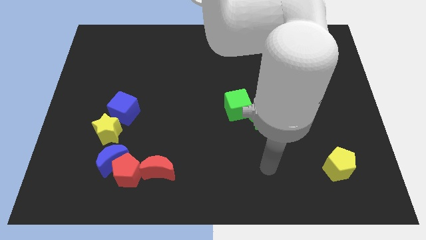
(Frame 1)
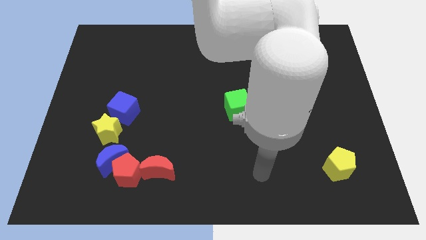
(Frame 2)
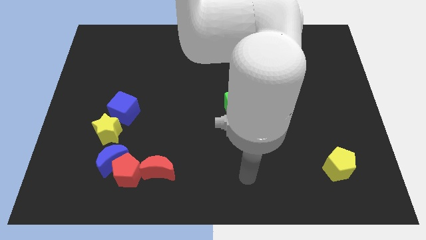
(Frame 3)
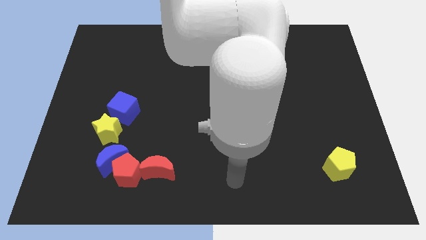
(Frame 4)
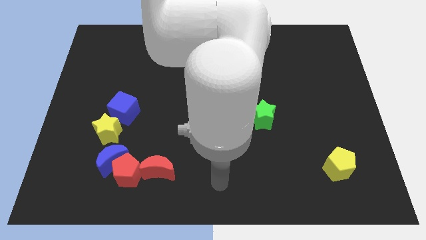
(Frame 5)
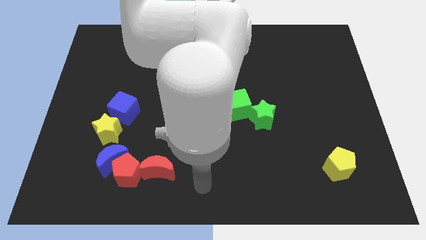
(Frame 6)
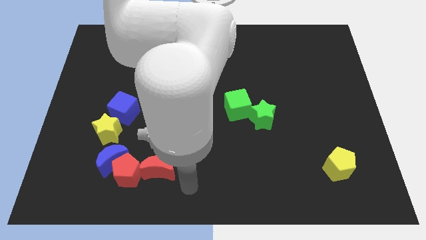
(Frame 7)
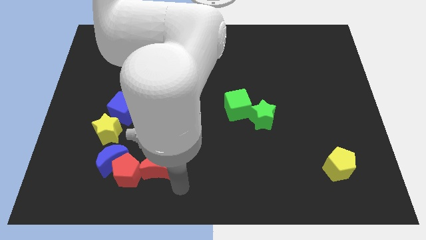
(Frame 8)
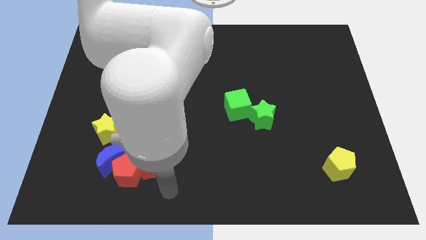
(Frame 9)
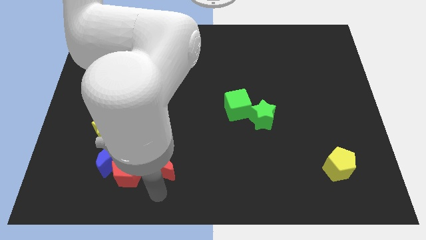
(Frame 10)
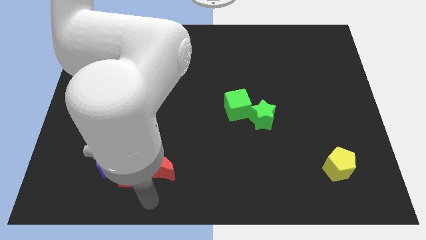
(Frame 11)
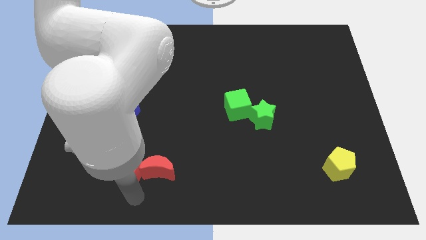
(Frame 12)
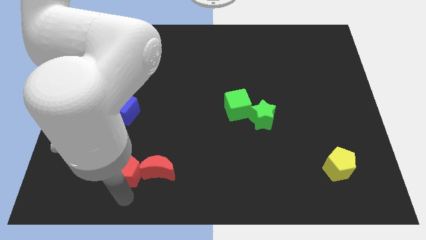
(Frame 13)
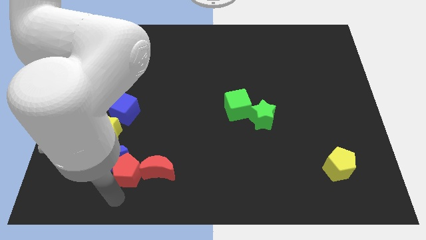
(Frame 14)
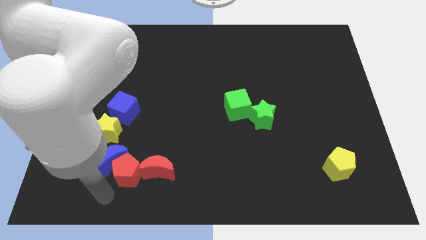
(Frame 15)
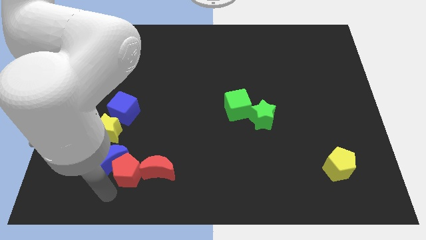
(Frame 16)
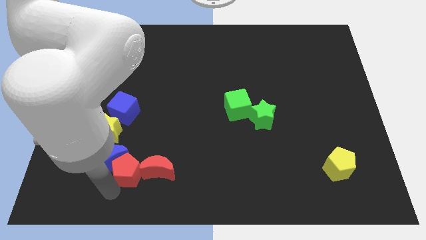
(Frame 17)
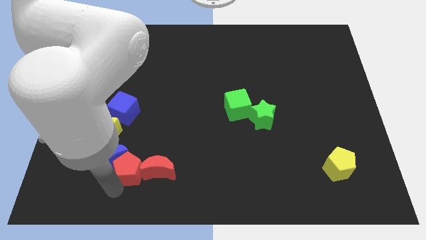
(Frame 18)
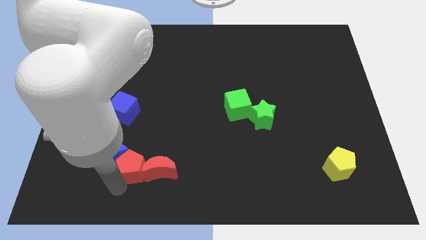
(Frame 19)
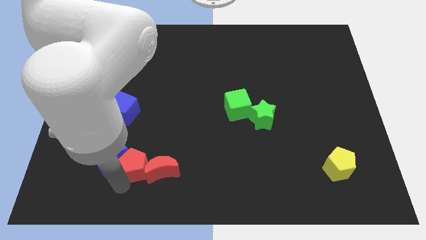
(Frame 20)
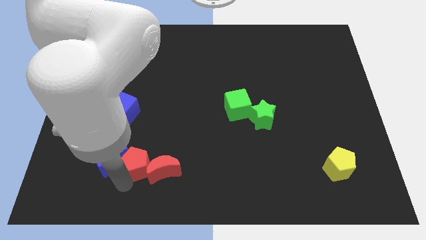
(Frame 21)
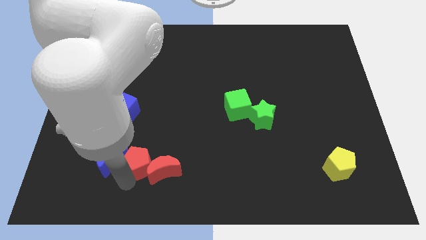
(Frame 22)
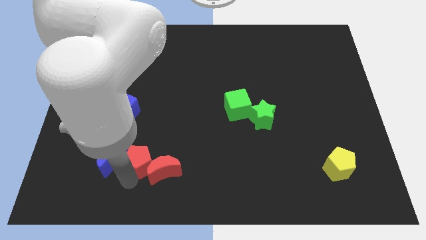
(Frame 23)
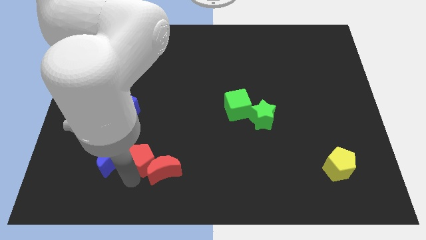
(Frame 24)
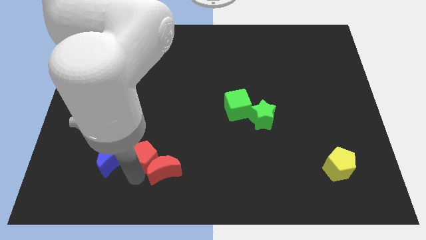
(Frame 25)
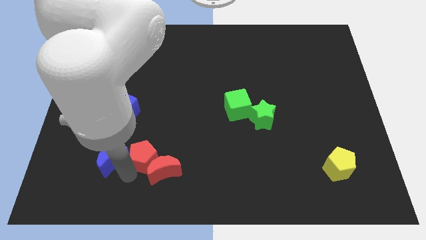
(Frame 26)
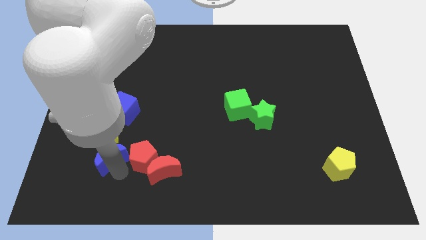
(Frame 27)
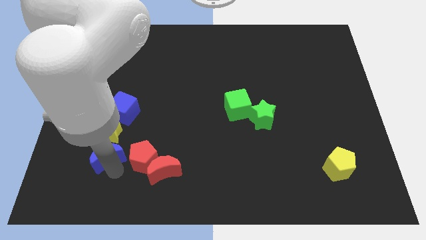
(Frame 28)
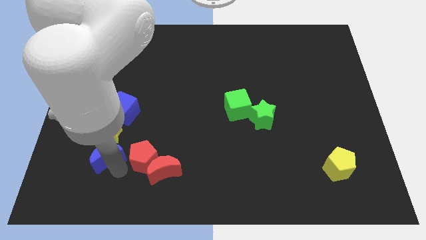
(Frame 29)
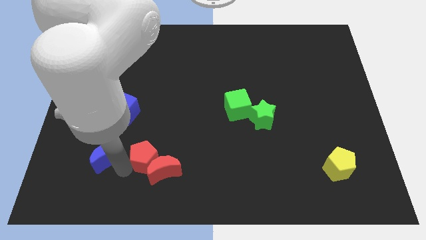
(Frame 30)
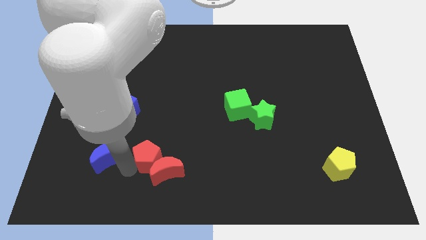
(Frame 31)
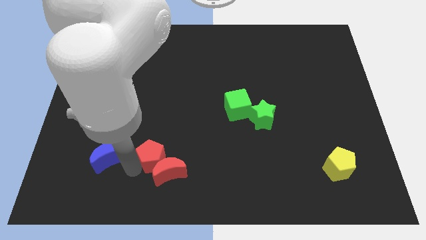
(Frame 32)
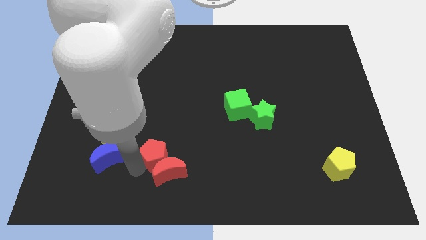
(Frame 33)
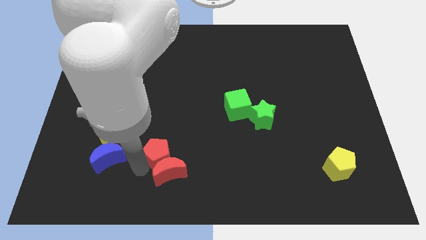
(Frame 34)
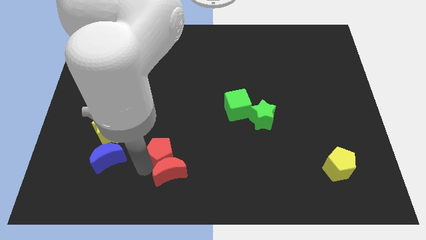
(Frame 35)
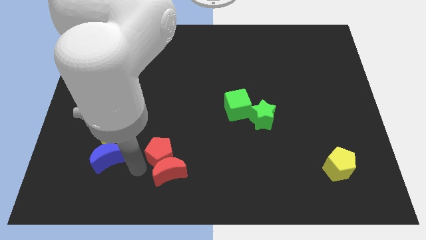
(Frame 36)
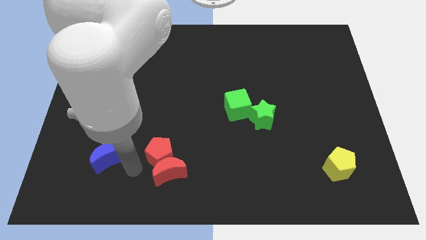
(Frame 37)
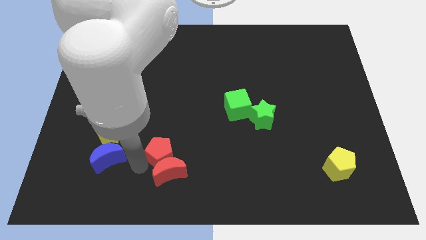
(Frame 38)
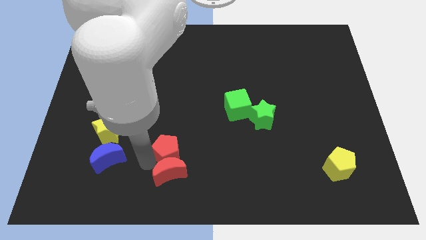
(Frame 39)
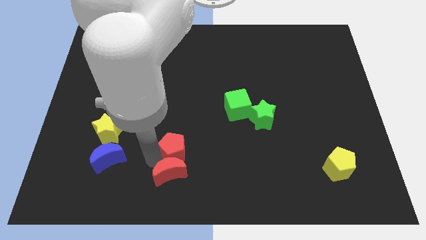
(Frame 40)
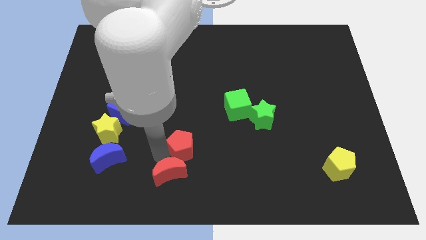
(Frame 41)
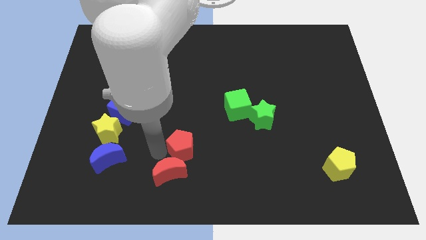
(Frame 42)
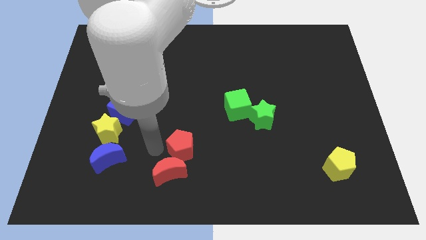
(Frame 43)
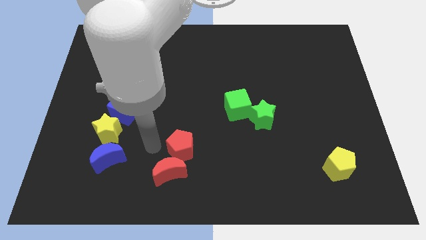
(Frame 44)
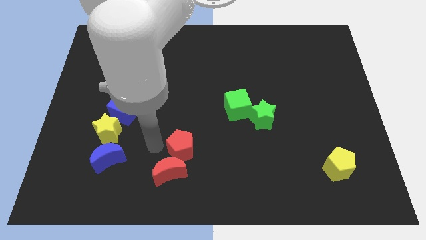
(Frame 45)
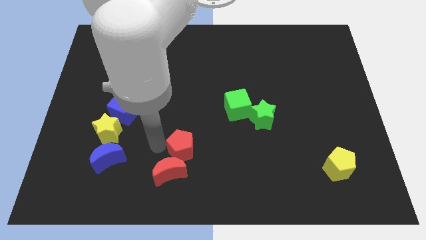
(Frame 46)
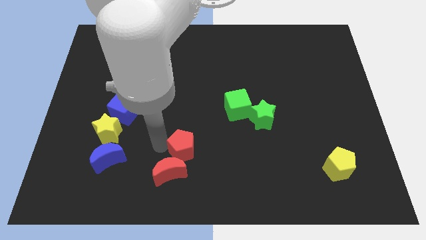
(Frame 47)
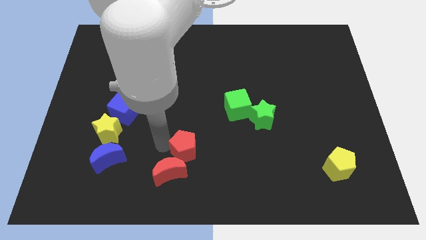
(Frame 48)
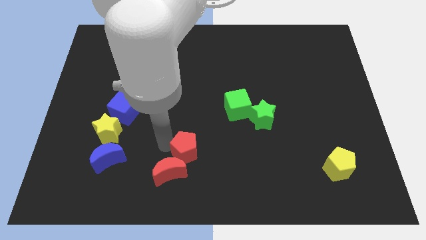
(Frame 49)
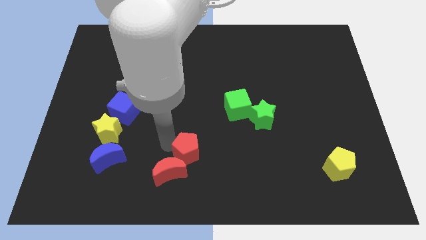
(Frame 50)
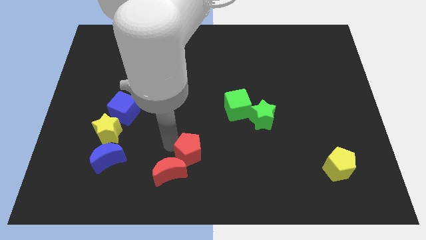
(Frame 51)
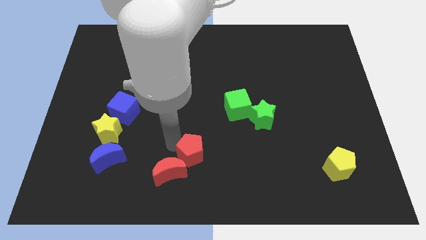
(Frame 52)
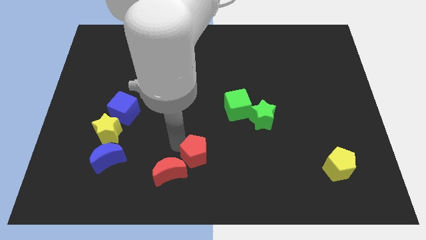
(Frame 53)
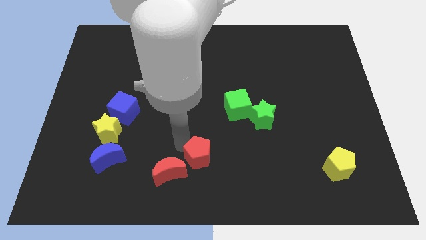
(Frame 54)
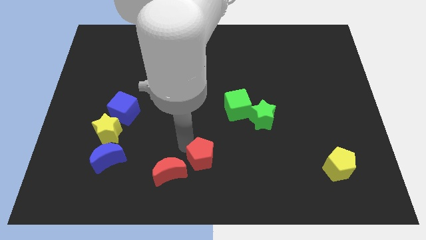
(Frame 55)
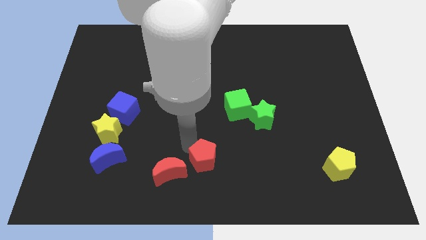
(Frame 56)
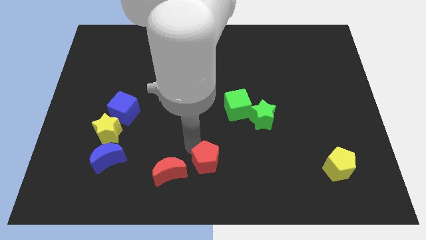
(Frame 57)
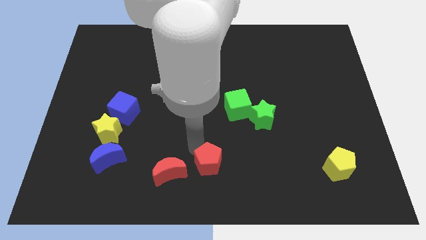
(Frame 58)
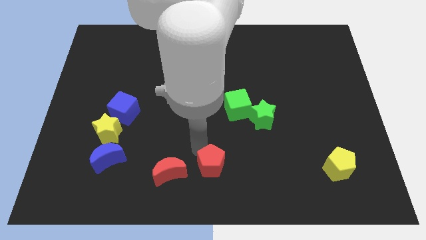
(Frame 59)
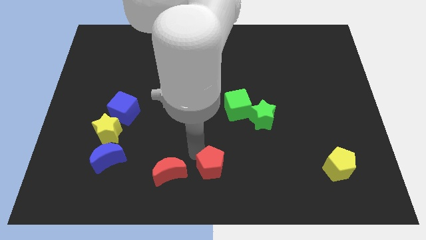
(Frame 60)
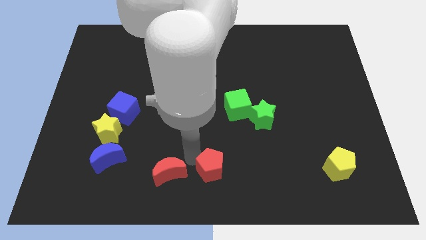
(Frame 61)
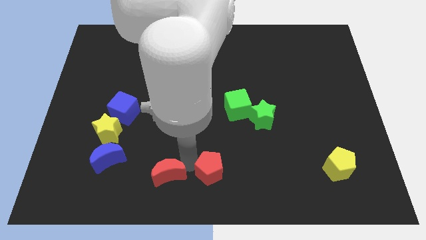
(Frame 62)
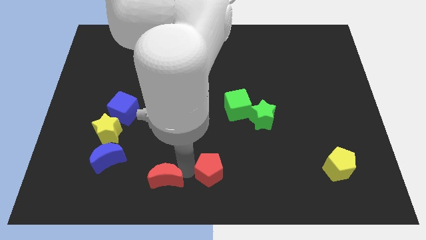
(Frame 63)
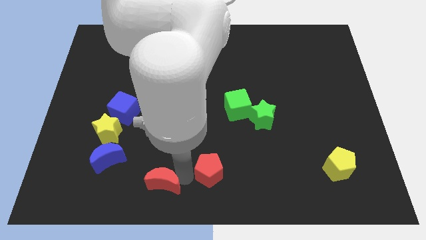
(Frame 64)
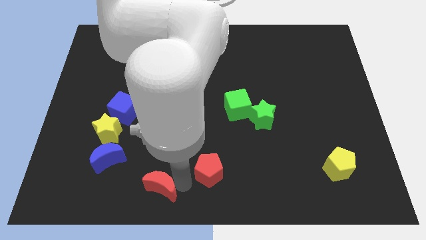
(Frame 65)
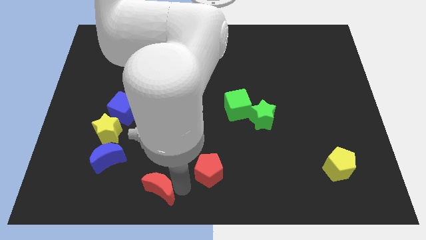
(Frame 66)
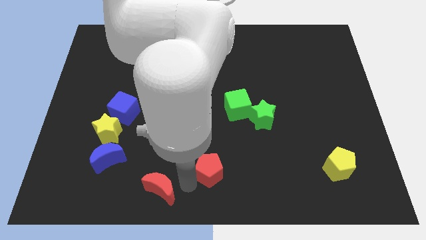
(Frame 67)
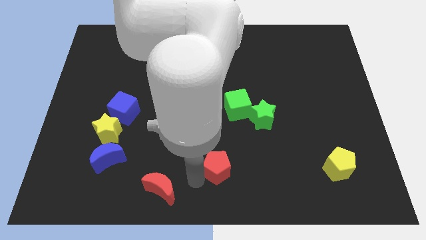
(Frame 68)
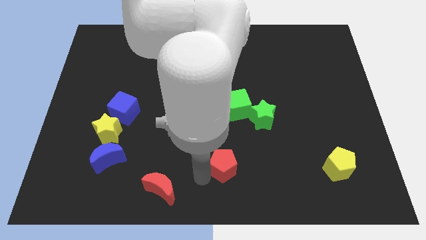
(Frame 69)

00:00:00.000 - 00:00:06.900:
slide the red pentagon right

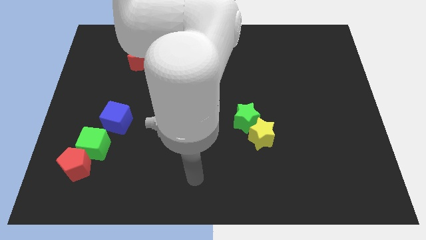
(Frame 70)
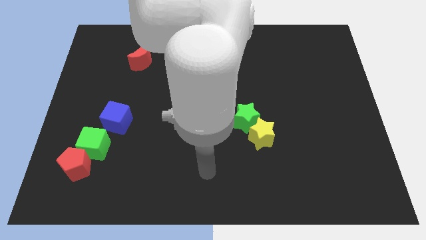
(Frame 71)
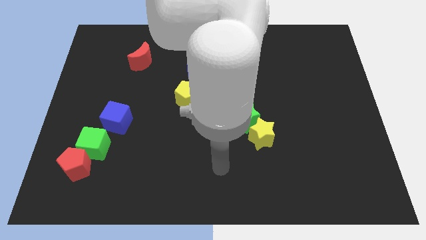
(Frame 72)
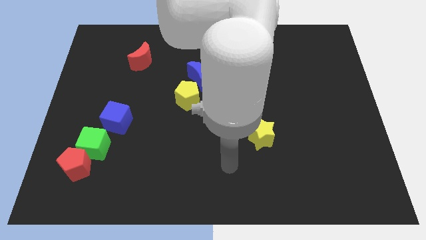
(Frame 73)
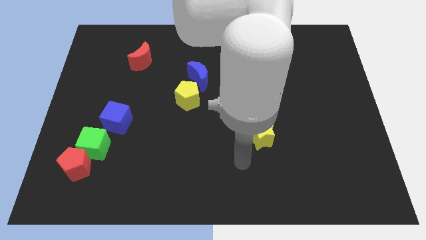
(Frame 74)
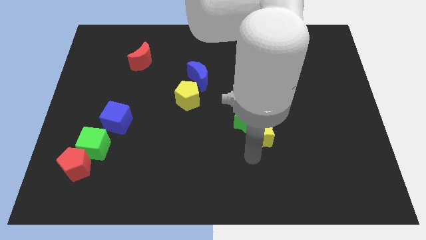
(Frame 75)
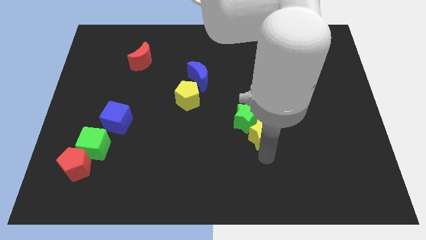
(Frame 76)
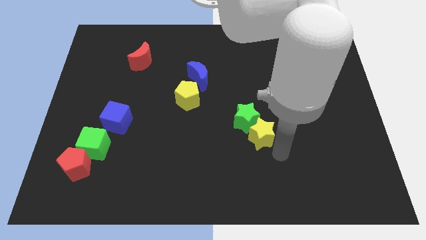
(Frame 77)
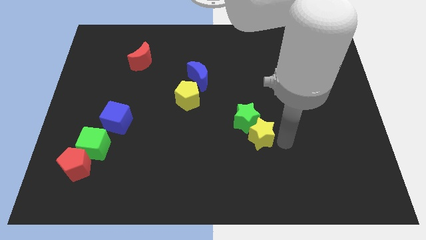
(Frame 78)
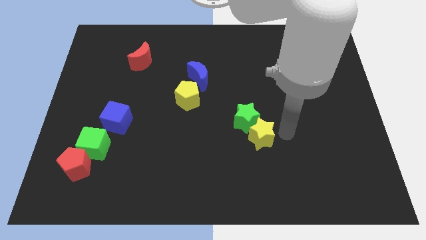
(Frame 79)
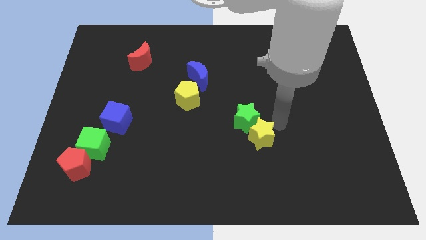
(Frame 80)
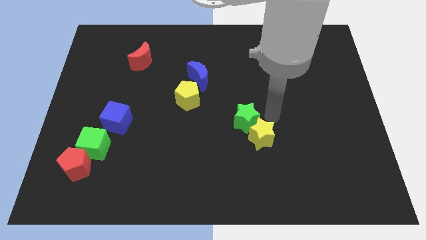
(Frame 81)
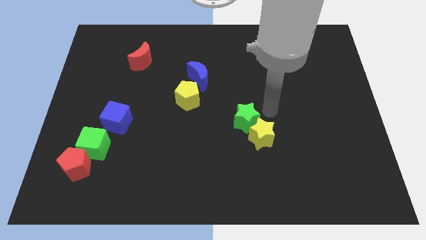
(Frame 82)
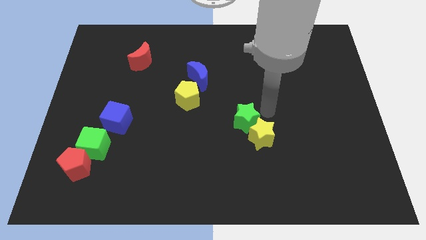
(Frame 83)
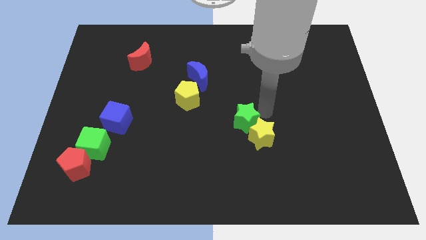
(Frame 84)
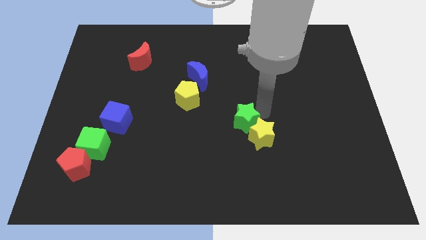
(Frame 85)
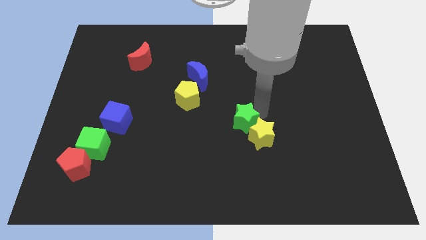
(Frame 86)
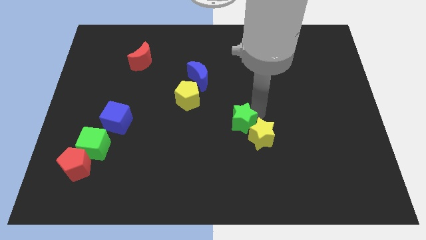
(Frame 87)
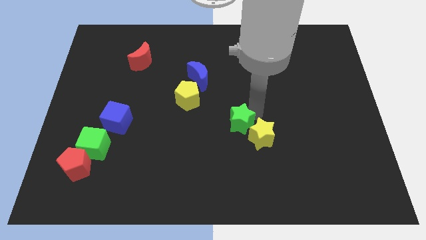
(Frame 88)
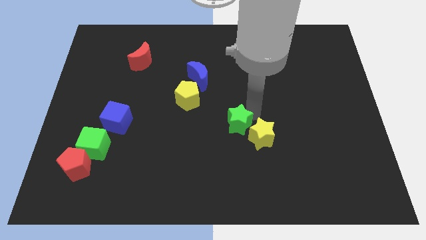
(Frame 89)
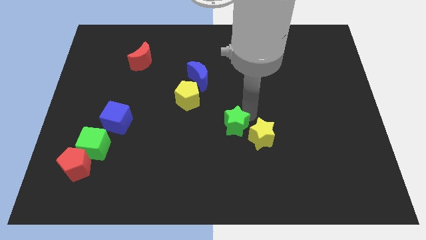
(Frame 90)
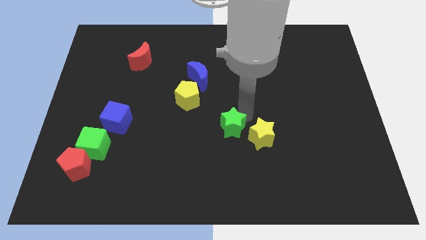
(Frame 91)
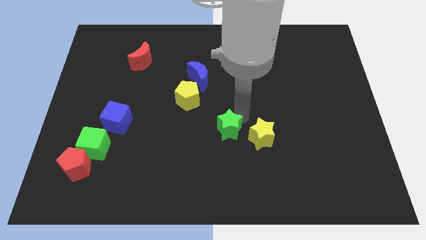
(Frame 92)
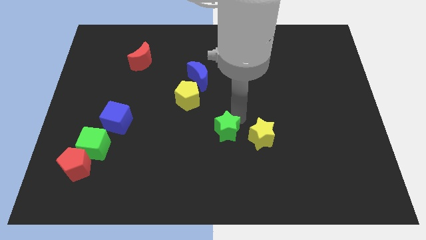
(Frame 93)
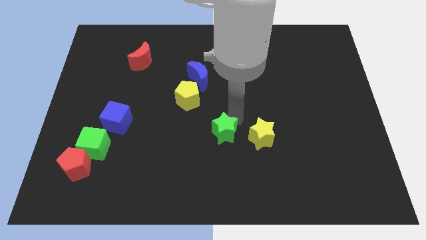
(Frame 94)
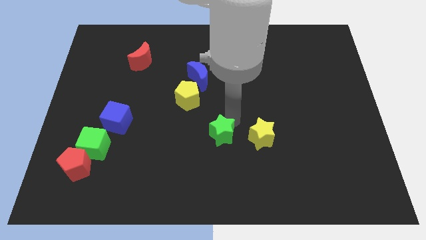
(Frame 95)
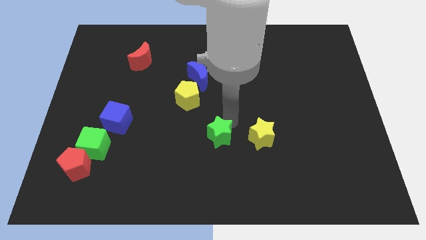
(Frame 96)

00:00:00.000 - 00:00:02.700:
slightly move the green star down and left diagonally
